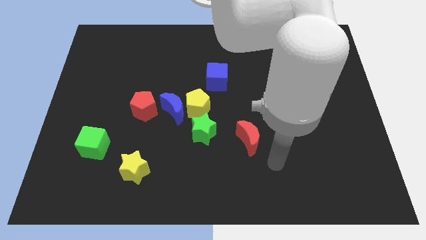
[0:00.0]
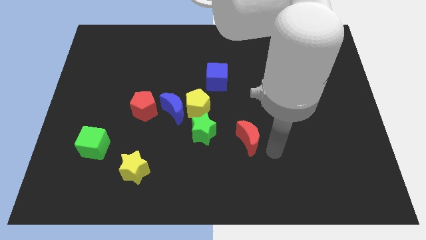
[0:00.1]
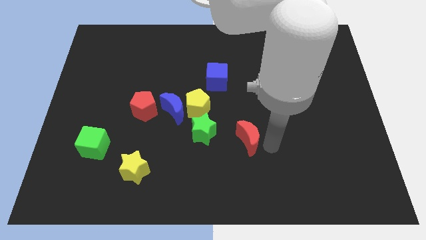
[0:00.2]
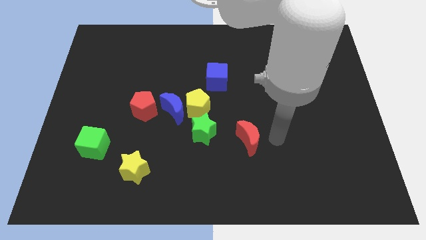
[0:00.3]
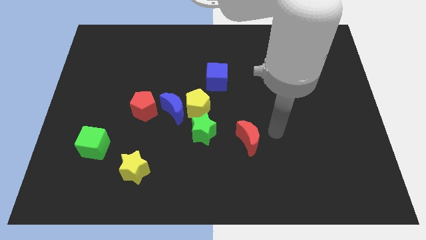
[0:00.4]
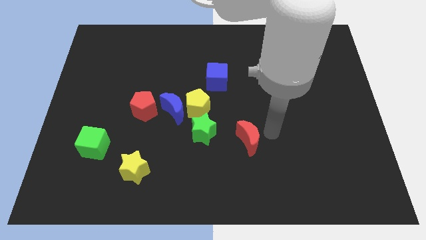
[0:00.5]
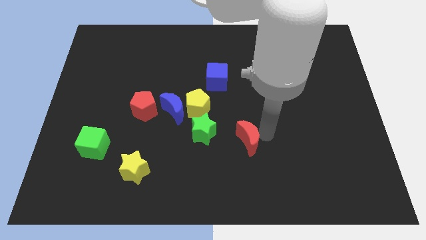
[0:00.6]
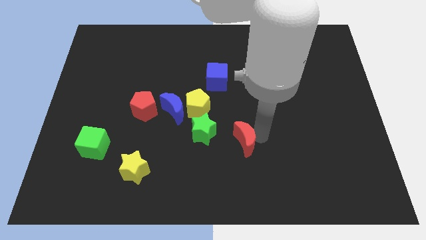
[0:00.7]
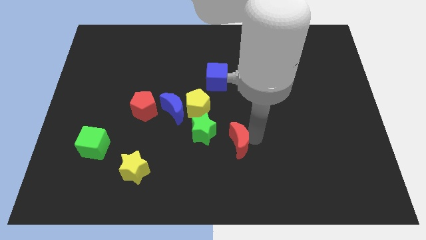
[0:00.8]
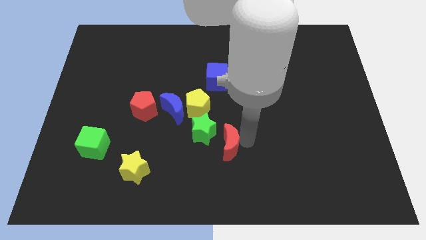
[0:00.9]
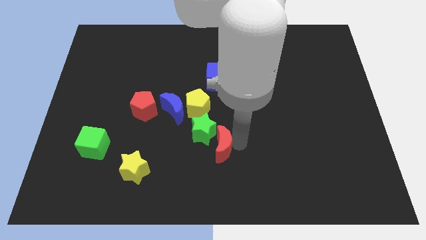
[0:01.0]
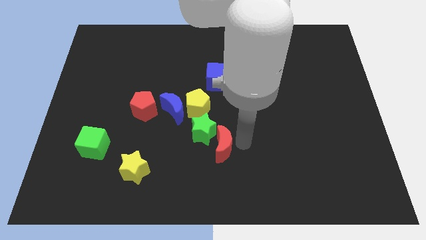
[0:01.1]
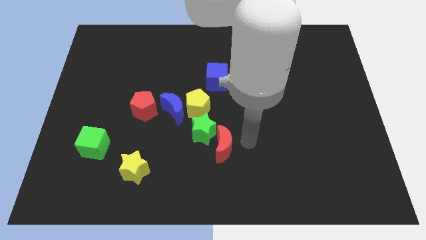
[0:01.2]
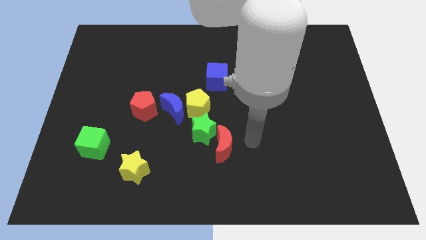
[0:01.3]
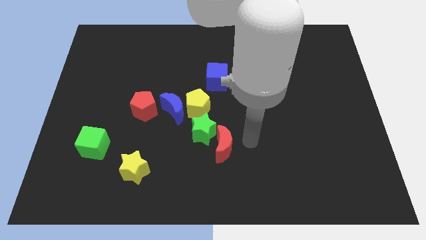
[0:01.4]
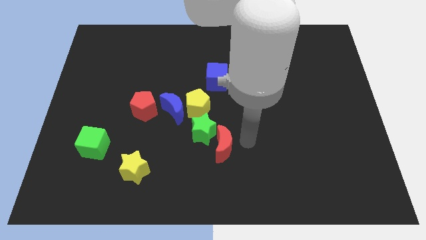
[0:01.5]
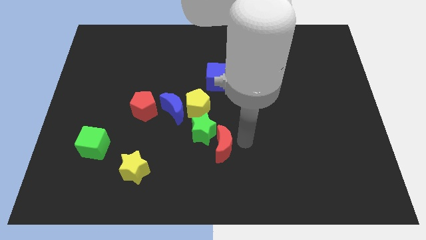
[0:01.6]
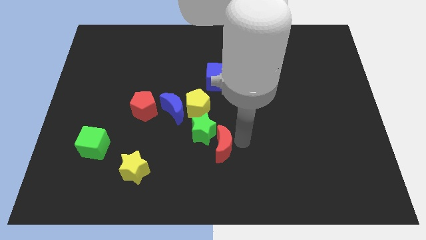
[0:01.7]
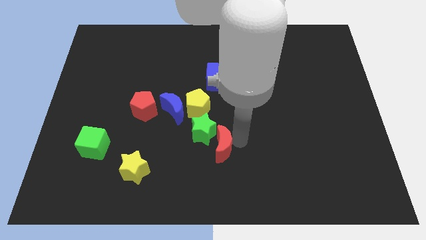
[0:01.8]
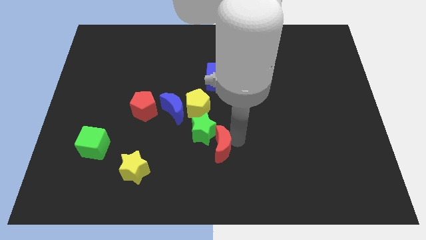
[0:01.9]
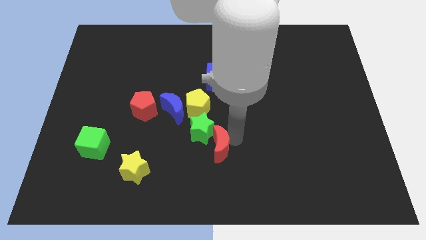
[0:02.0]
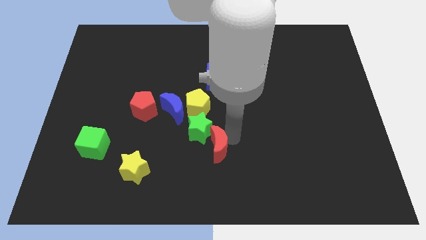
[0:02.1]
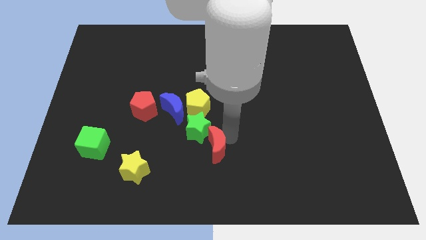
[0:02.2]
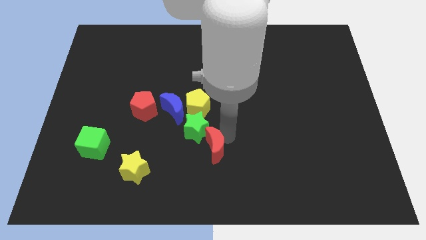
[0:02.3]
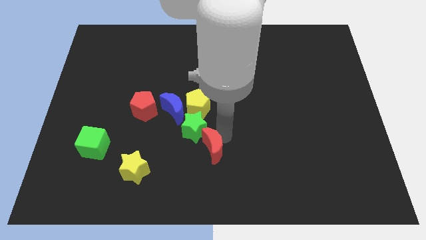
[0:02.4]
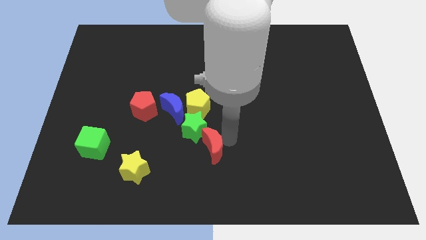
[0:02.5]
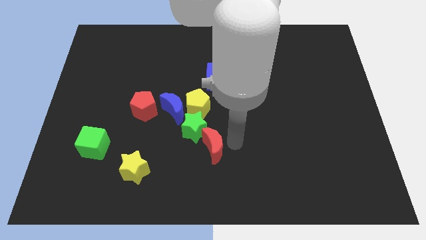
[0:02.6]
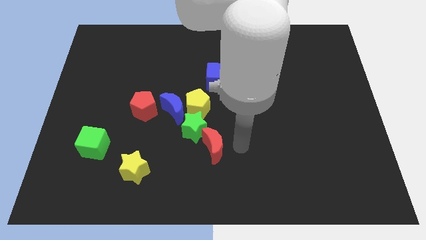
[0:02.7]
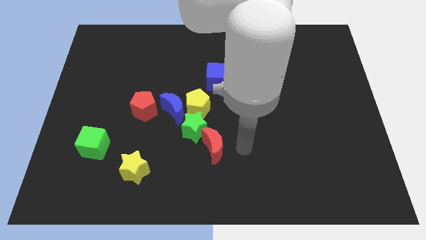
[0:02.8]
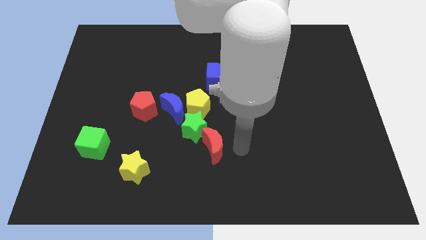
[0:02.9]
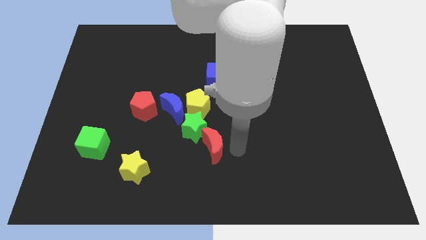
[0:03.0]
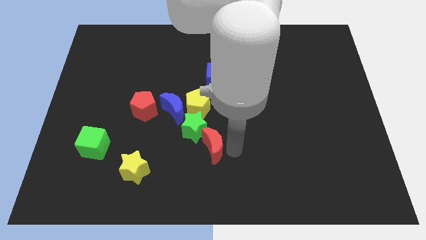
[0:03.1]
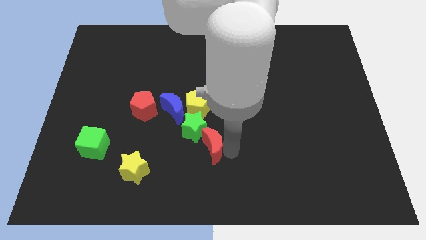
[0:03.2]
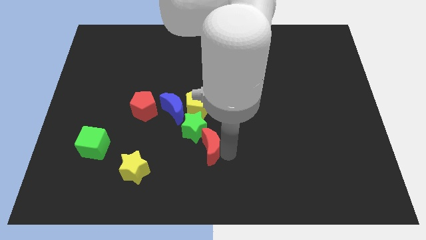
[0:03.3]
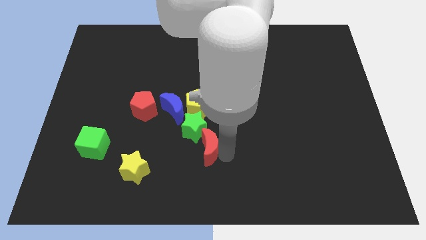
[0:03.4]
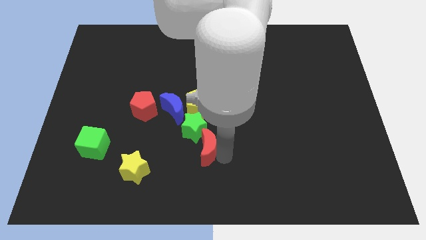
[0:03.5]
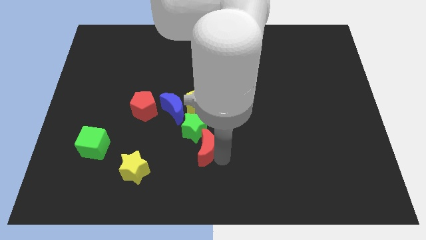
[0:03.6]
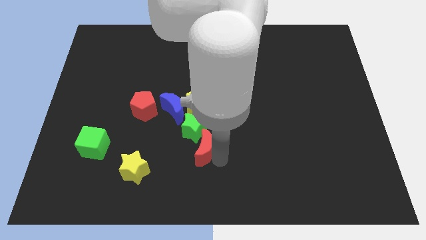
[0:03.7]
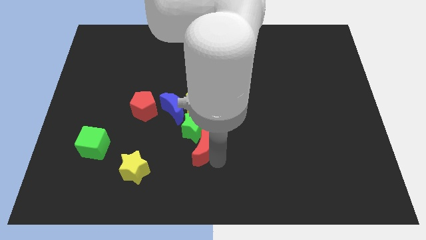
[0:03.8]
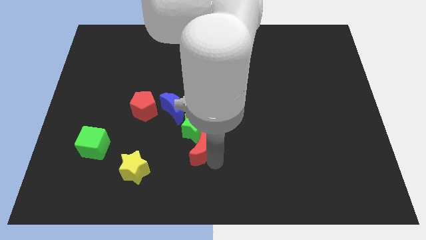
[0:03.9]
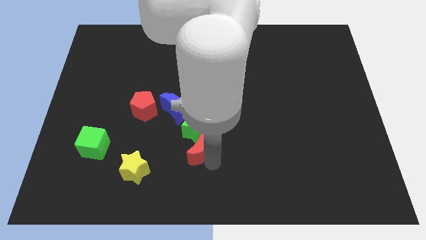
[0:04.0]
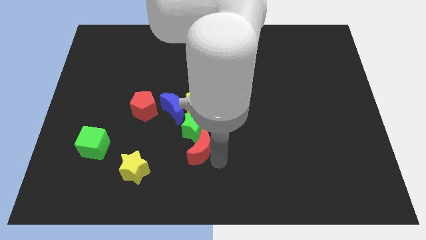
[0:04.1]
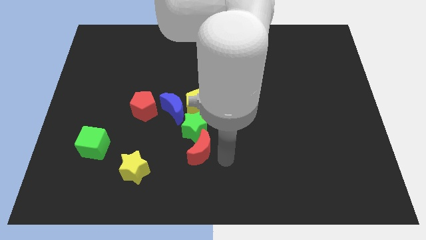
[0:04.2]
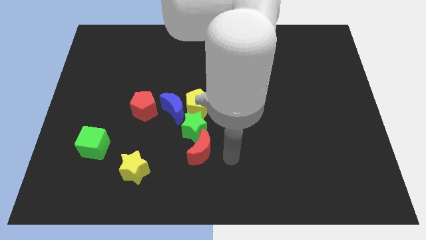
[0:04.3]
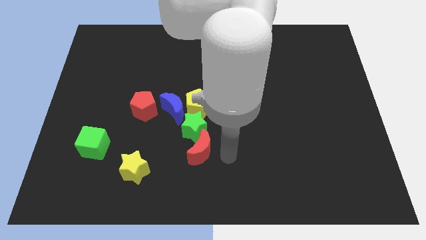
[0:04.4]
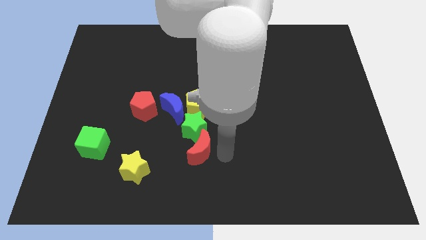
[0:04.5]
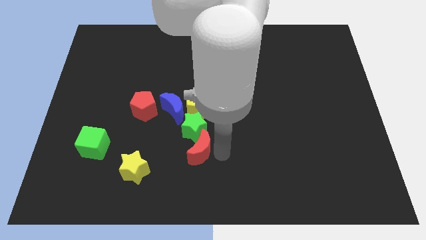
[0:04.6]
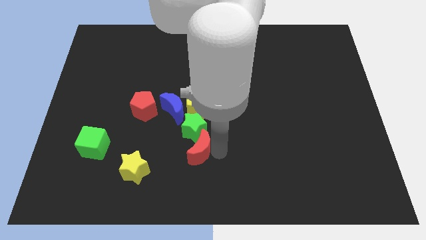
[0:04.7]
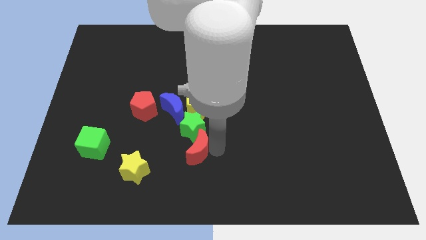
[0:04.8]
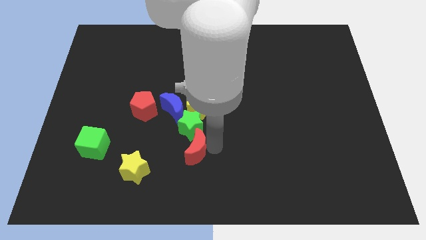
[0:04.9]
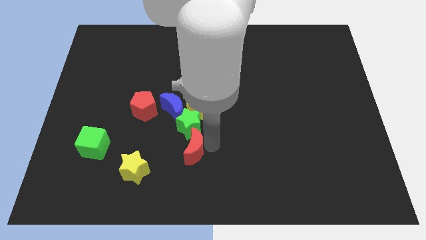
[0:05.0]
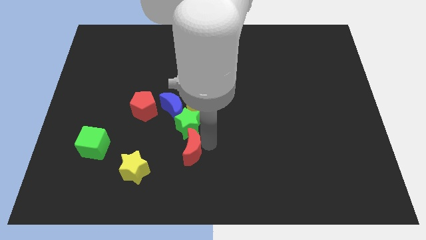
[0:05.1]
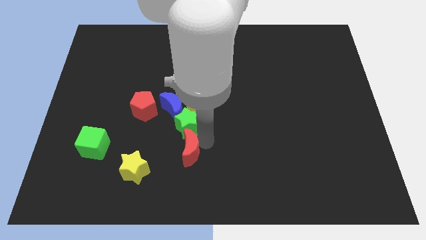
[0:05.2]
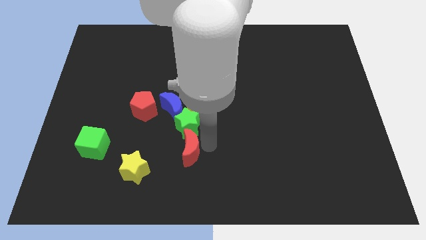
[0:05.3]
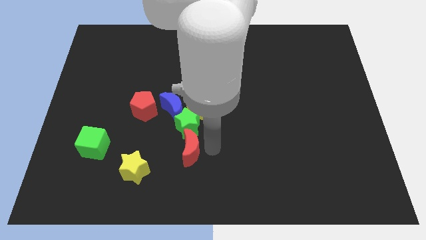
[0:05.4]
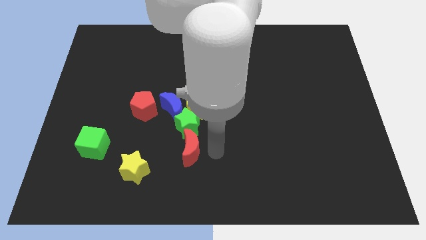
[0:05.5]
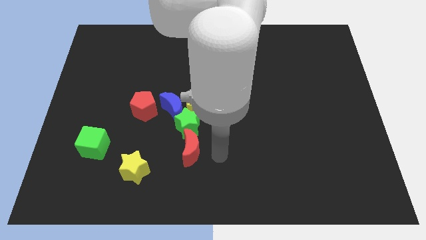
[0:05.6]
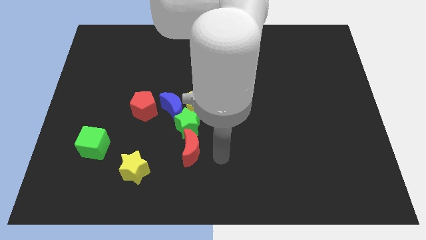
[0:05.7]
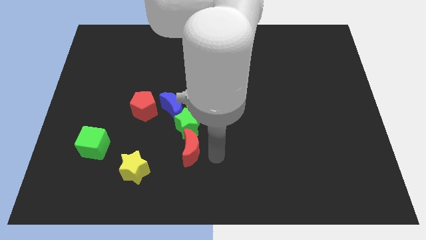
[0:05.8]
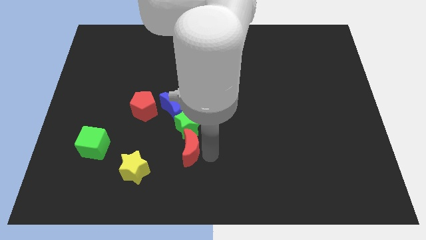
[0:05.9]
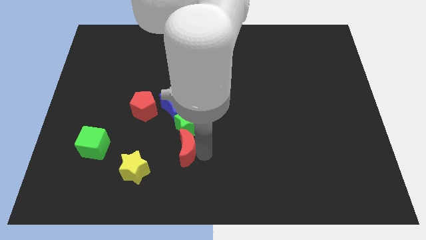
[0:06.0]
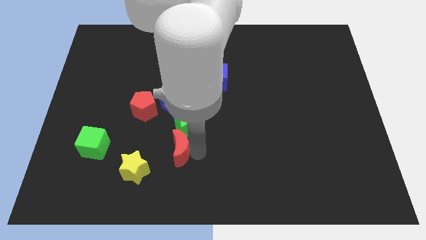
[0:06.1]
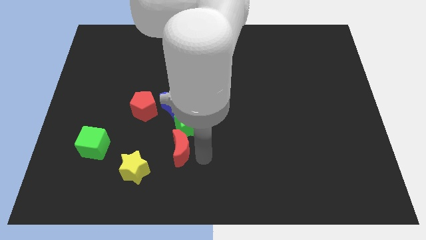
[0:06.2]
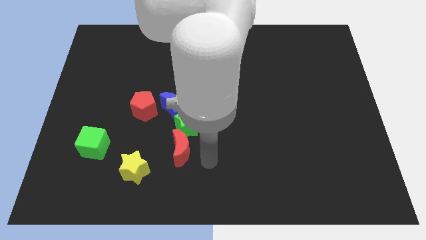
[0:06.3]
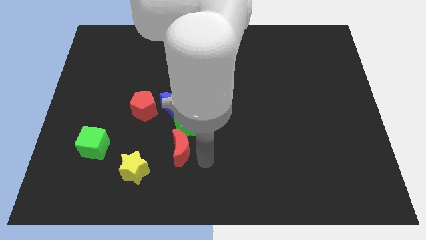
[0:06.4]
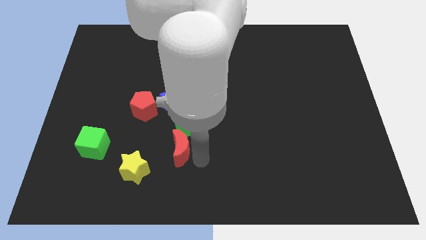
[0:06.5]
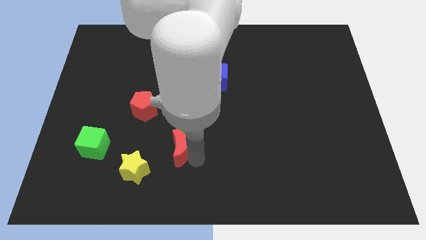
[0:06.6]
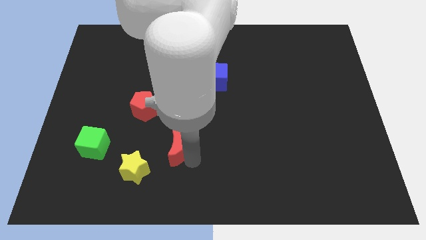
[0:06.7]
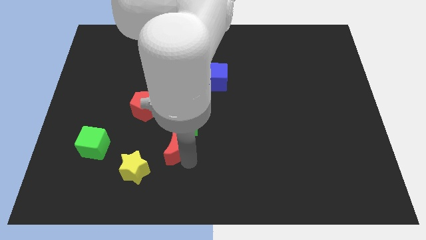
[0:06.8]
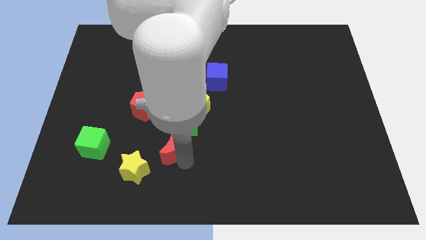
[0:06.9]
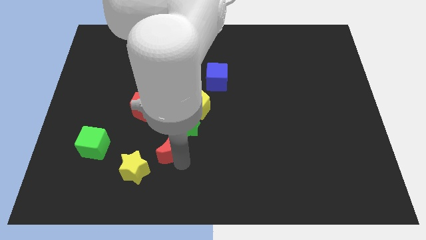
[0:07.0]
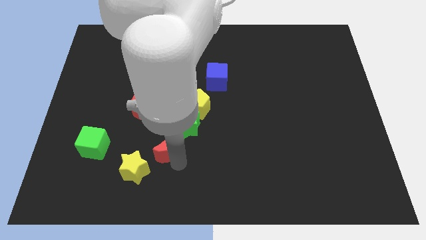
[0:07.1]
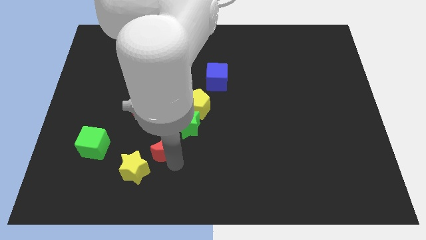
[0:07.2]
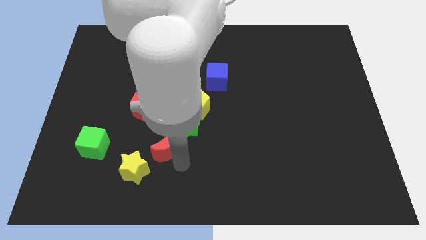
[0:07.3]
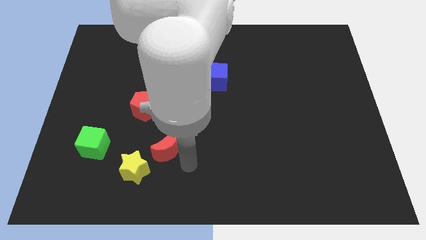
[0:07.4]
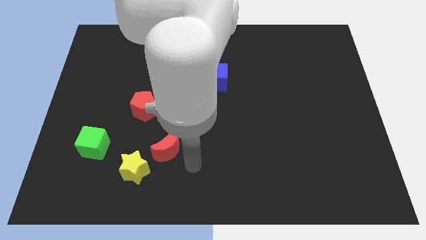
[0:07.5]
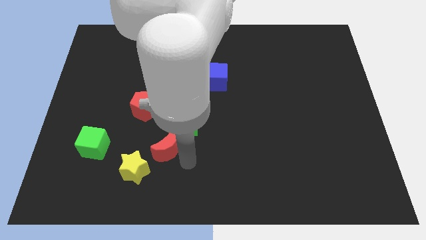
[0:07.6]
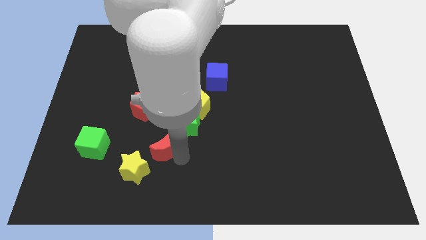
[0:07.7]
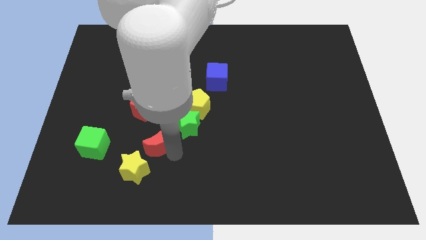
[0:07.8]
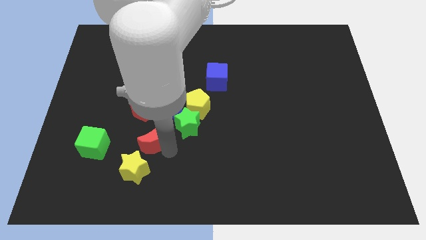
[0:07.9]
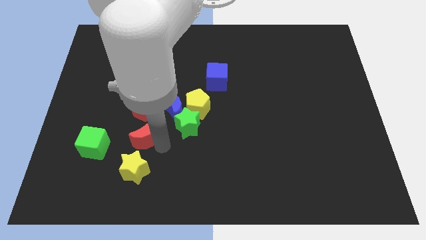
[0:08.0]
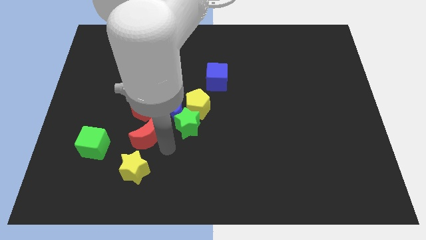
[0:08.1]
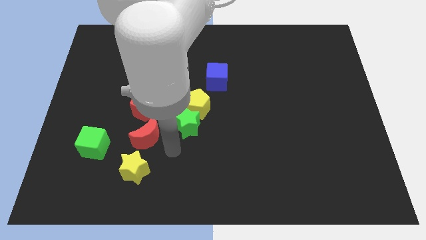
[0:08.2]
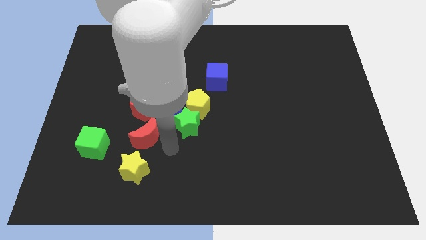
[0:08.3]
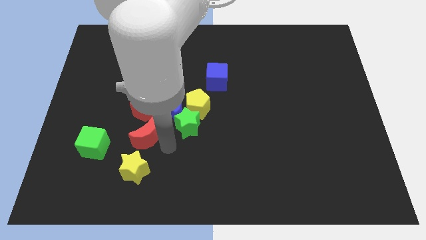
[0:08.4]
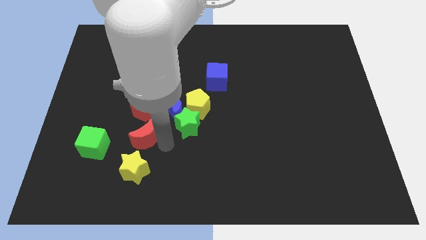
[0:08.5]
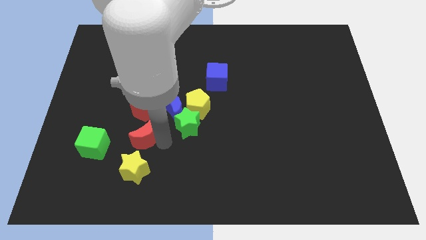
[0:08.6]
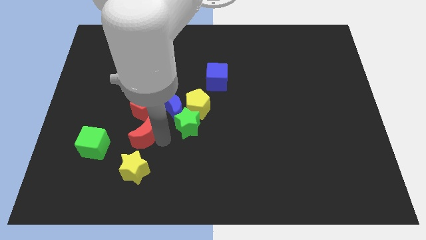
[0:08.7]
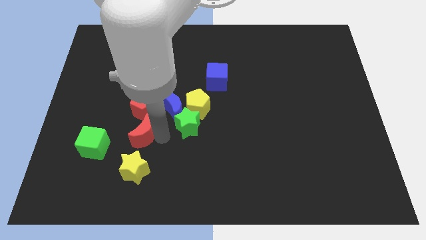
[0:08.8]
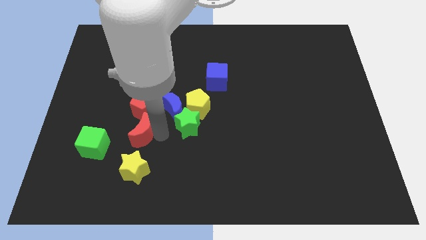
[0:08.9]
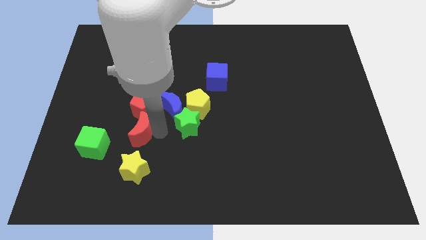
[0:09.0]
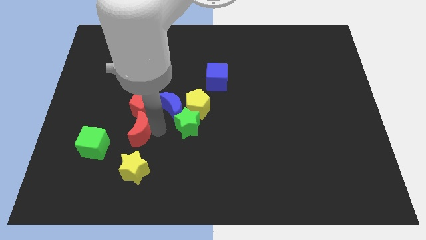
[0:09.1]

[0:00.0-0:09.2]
push the red moon diagonally up and to the right of the green cube
